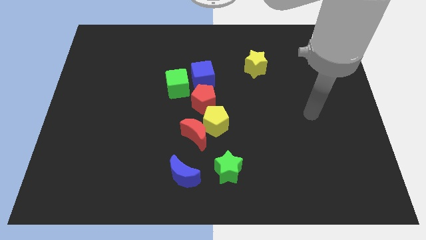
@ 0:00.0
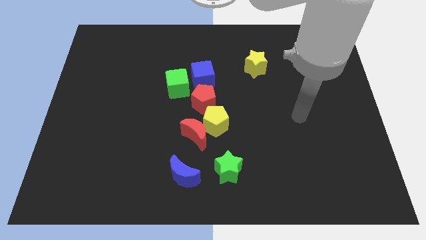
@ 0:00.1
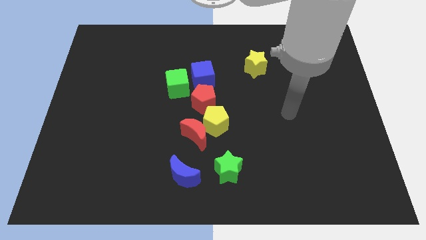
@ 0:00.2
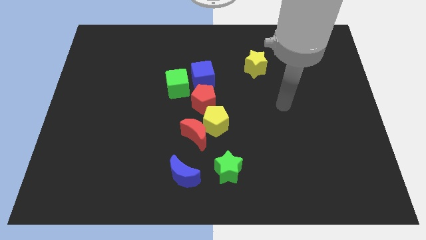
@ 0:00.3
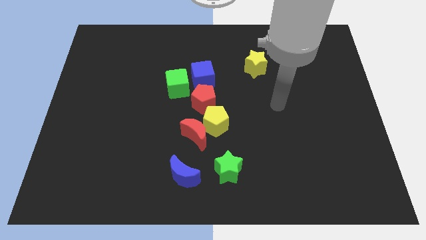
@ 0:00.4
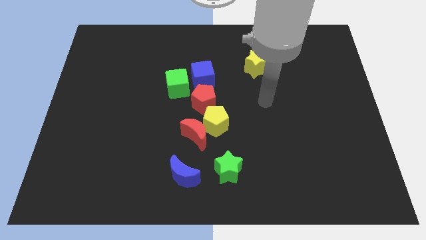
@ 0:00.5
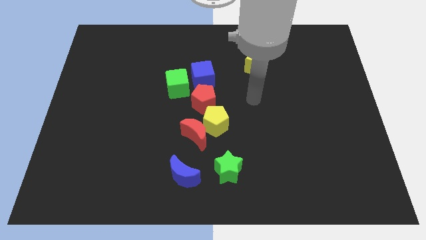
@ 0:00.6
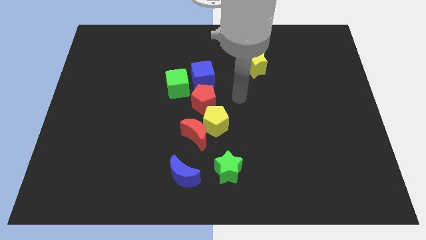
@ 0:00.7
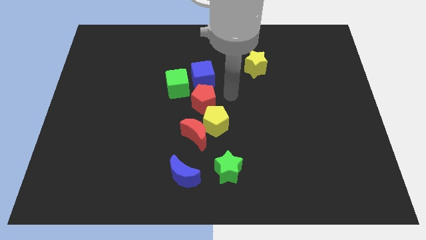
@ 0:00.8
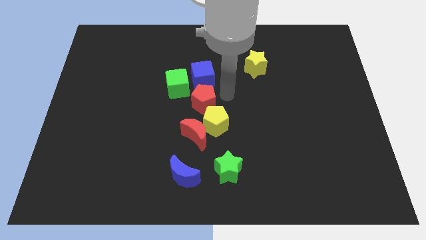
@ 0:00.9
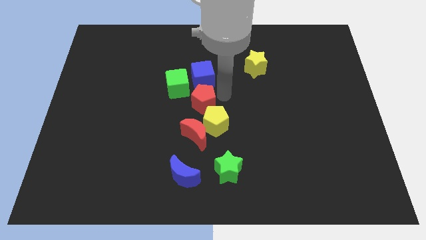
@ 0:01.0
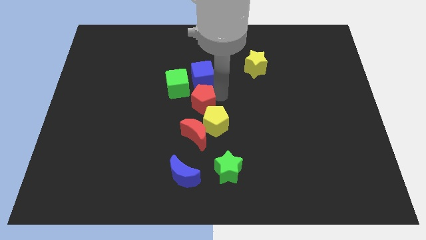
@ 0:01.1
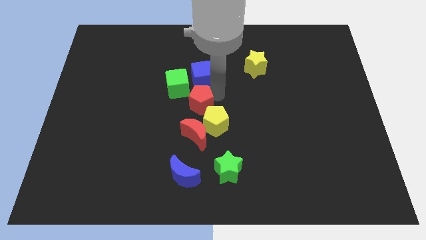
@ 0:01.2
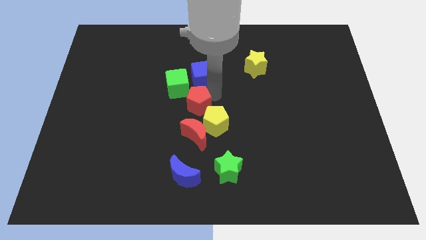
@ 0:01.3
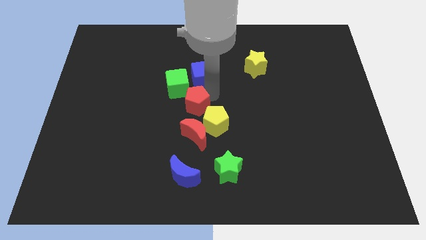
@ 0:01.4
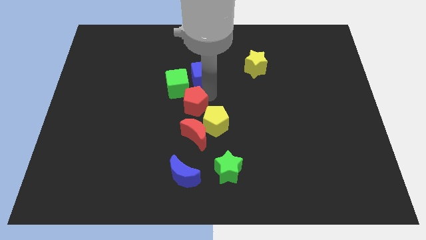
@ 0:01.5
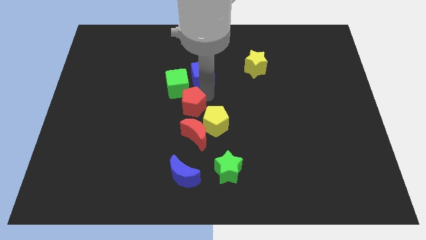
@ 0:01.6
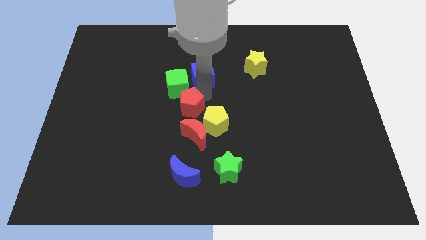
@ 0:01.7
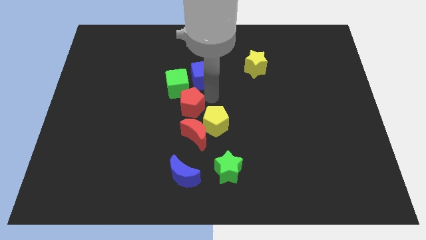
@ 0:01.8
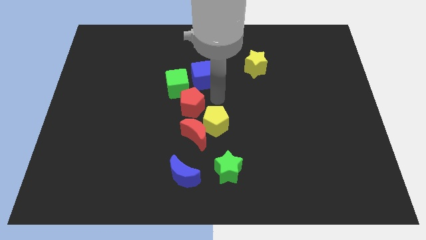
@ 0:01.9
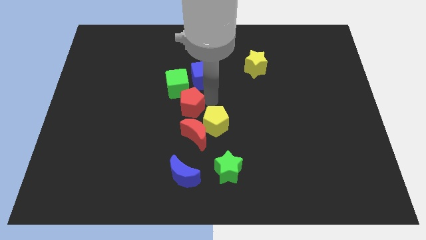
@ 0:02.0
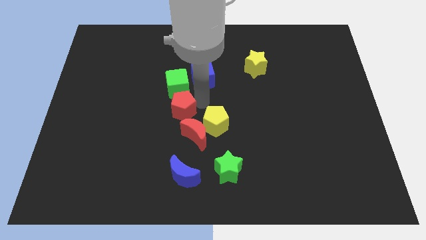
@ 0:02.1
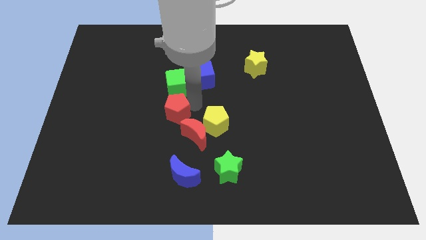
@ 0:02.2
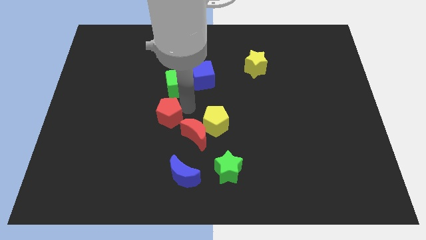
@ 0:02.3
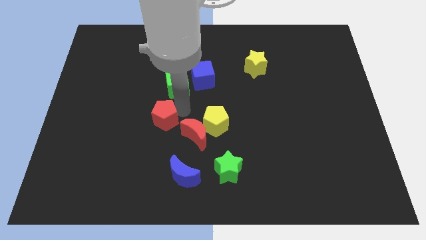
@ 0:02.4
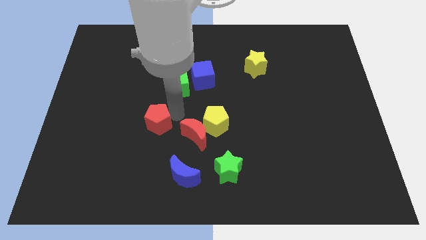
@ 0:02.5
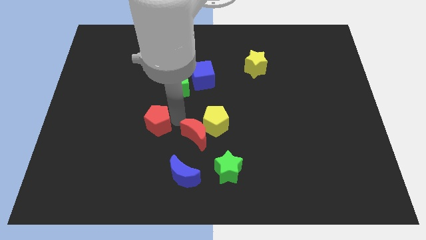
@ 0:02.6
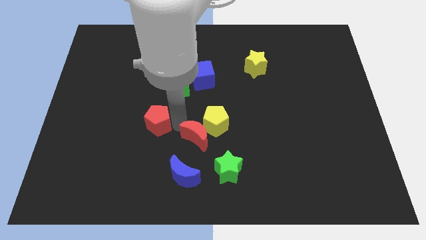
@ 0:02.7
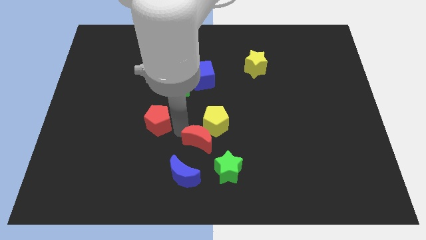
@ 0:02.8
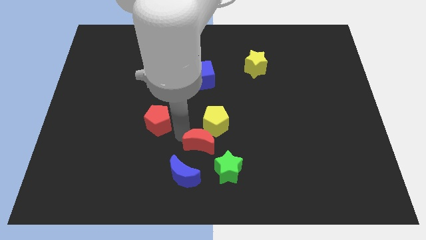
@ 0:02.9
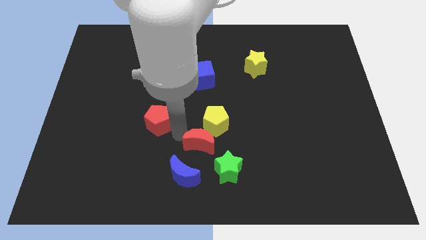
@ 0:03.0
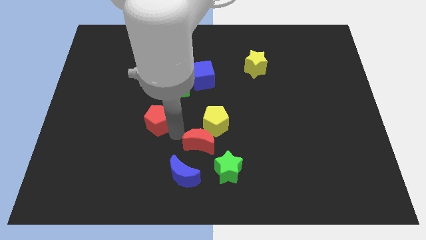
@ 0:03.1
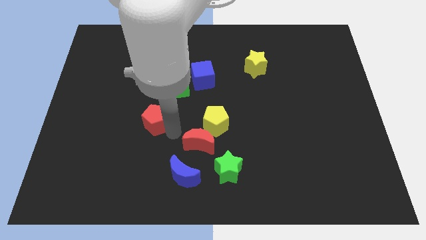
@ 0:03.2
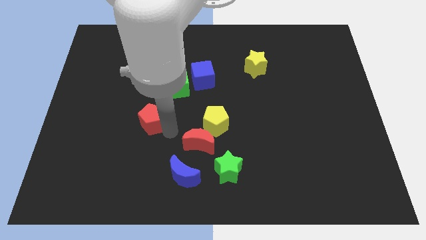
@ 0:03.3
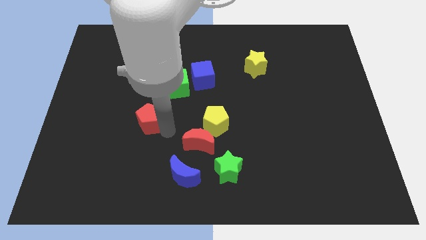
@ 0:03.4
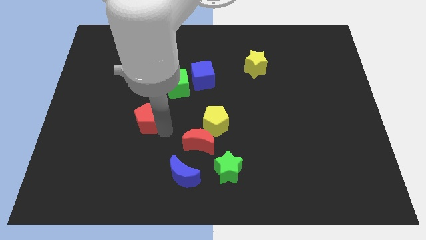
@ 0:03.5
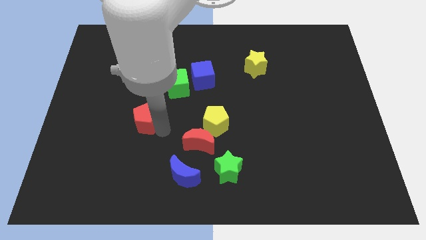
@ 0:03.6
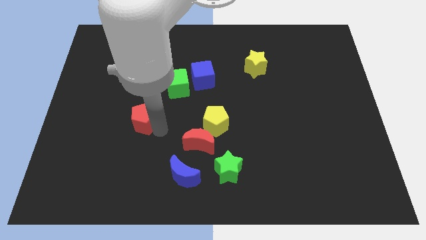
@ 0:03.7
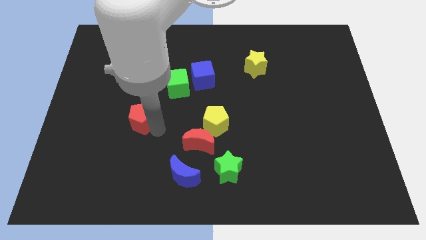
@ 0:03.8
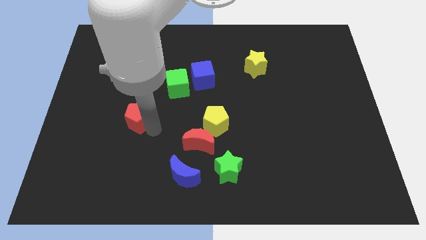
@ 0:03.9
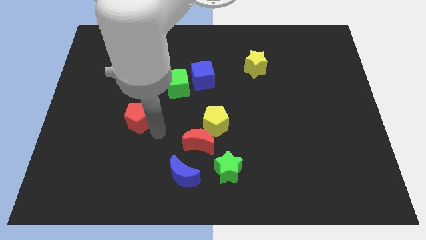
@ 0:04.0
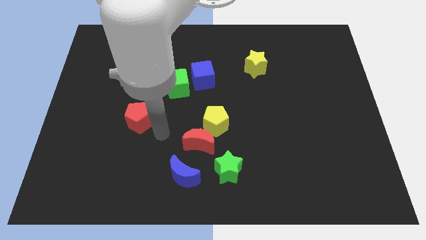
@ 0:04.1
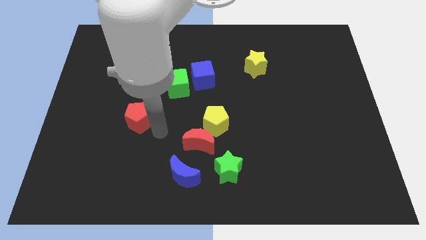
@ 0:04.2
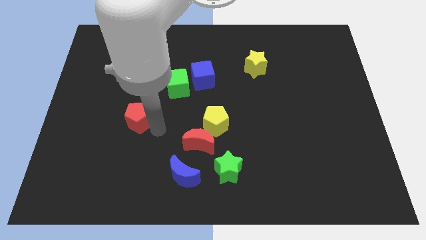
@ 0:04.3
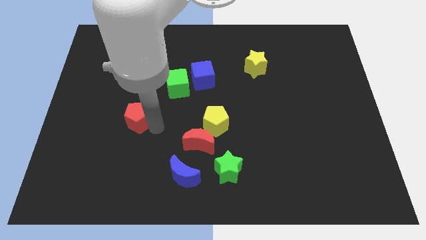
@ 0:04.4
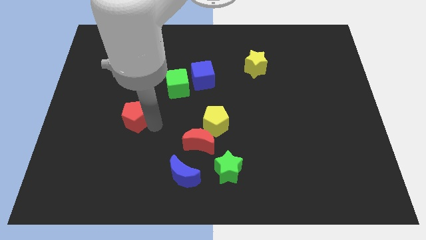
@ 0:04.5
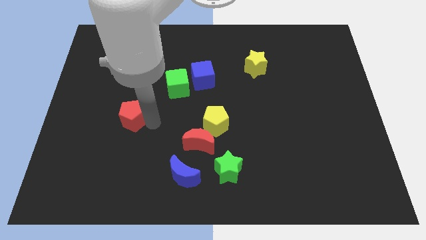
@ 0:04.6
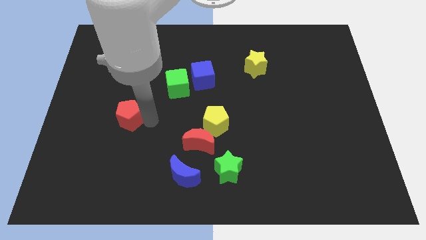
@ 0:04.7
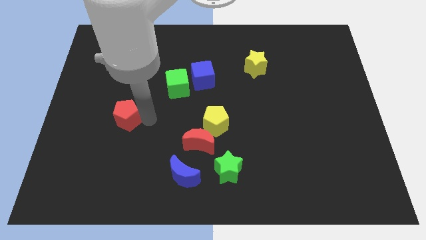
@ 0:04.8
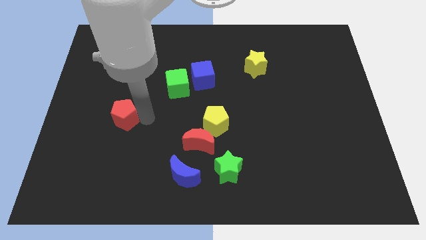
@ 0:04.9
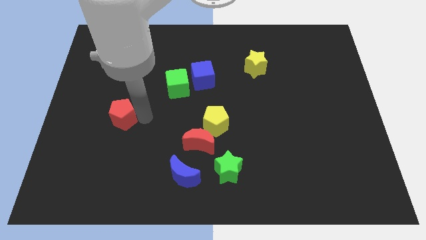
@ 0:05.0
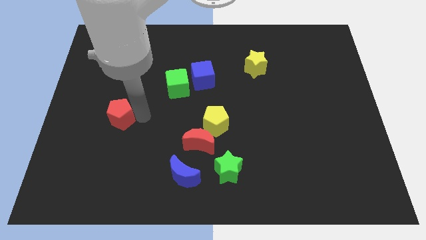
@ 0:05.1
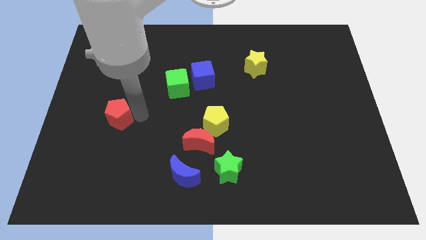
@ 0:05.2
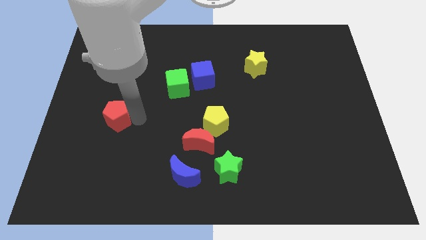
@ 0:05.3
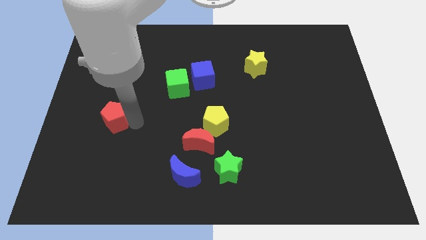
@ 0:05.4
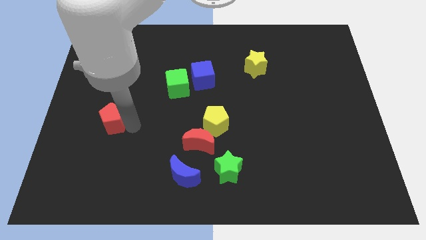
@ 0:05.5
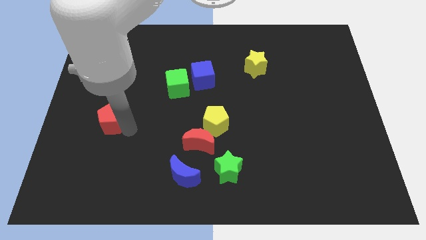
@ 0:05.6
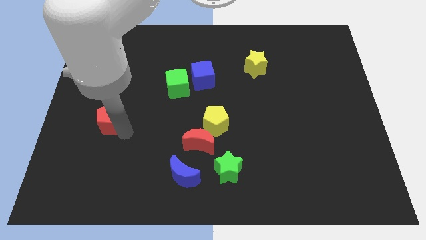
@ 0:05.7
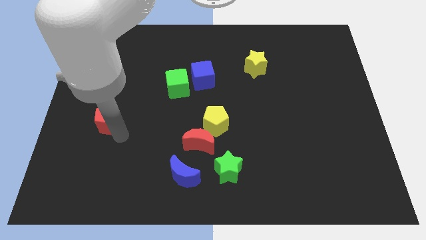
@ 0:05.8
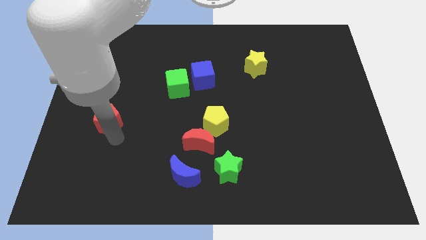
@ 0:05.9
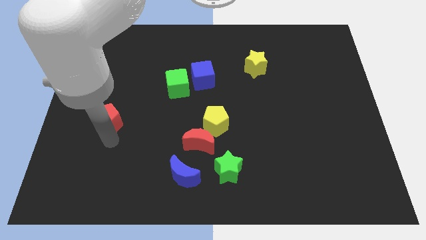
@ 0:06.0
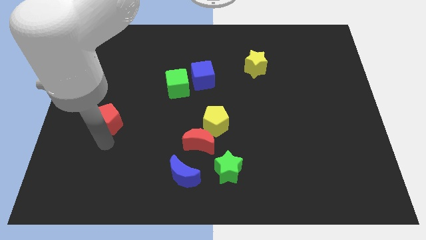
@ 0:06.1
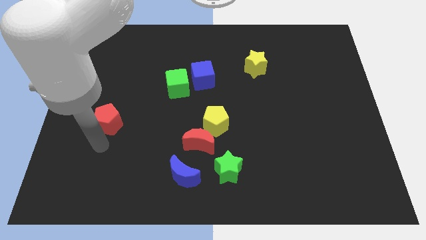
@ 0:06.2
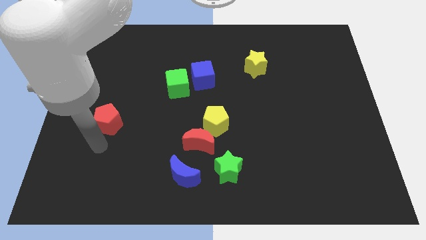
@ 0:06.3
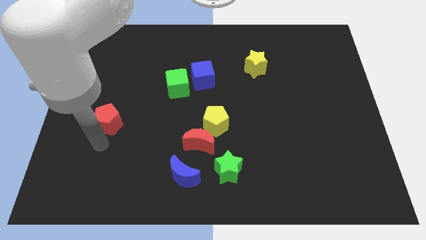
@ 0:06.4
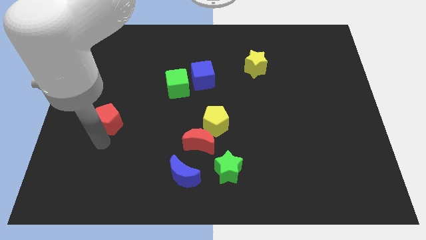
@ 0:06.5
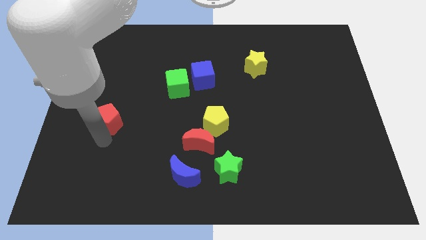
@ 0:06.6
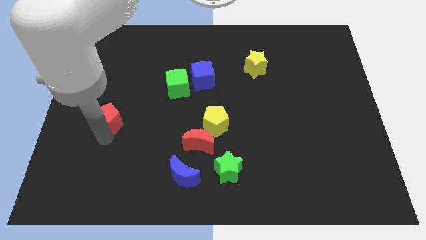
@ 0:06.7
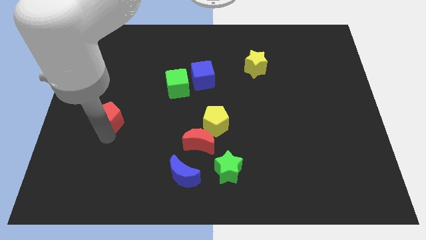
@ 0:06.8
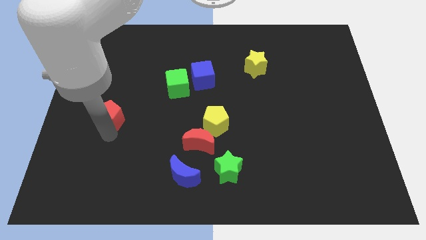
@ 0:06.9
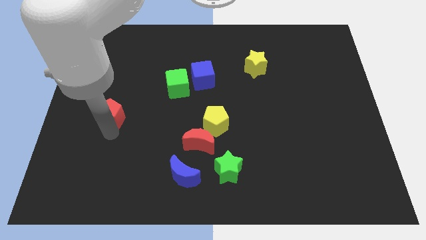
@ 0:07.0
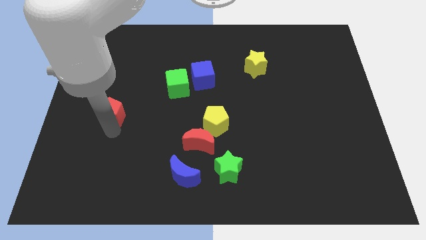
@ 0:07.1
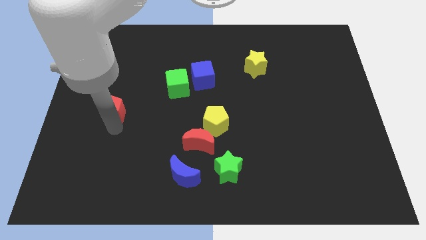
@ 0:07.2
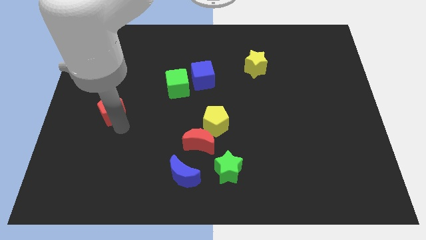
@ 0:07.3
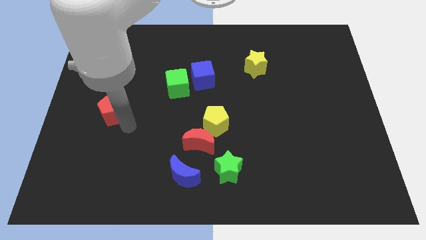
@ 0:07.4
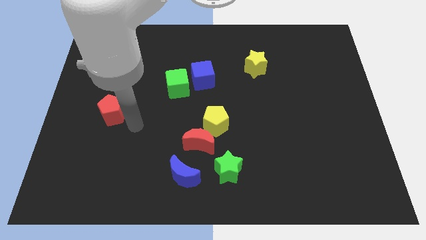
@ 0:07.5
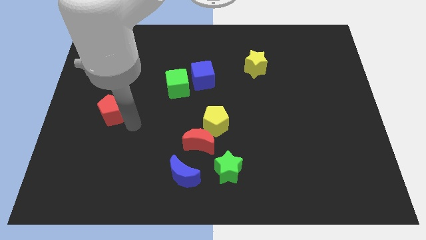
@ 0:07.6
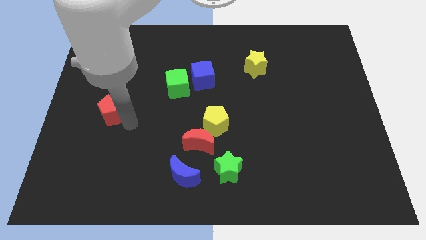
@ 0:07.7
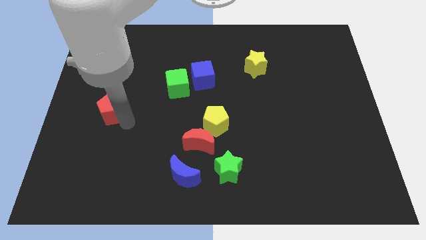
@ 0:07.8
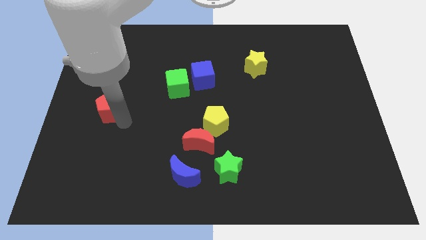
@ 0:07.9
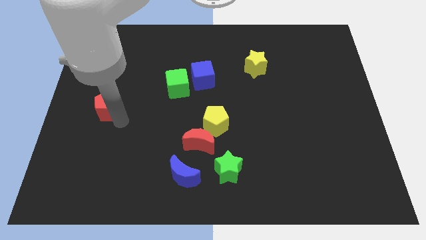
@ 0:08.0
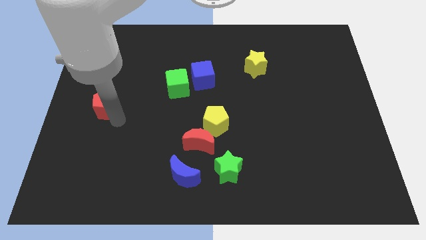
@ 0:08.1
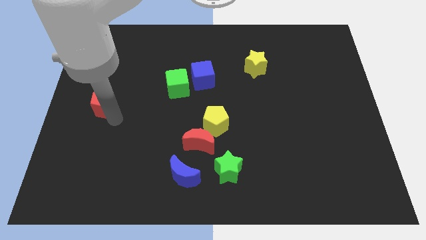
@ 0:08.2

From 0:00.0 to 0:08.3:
slide the red pentagon to the left side
